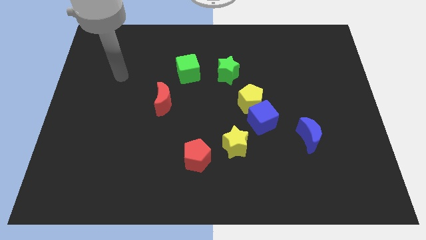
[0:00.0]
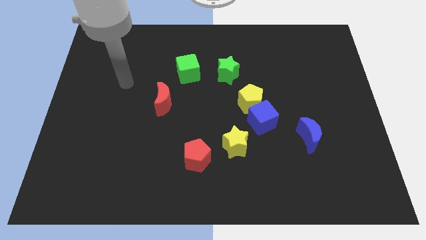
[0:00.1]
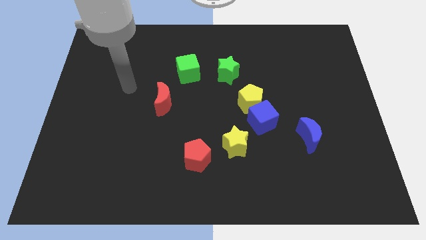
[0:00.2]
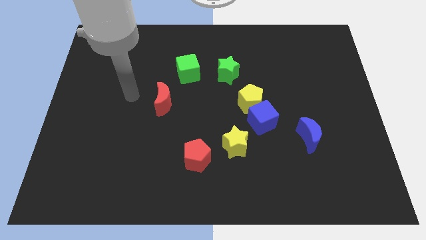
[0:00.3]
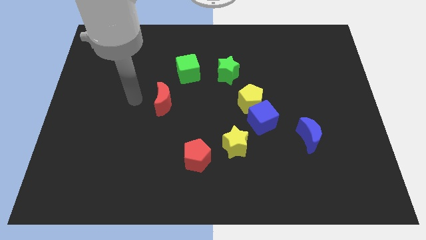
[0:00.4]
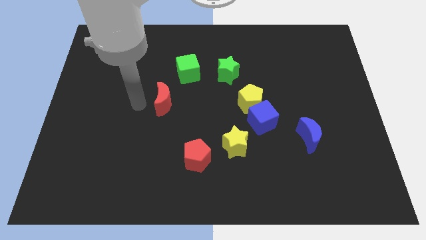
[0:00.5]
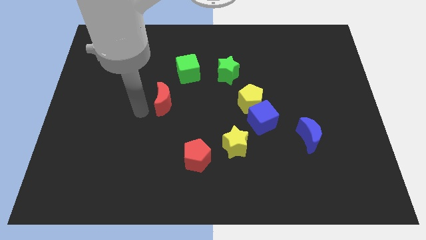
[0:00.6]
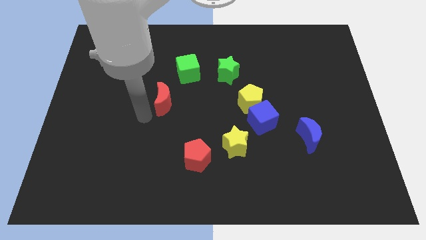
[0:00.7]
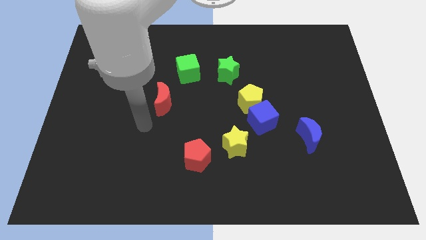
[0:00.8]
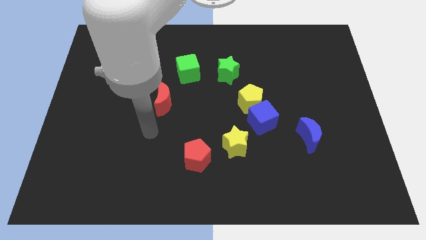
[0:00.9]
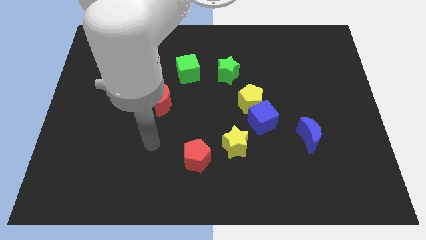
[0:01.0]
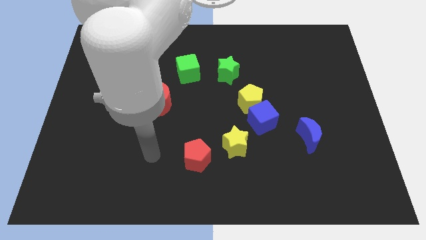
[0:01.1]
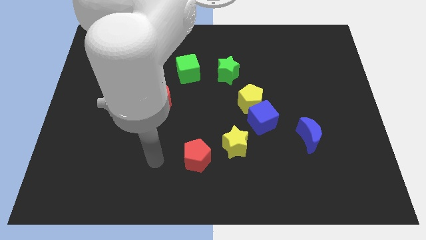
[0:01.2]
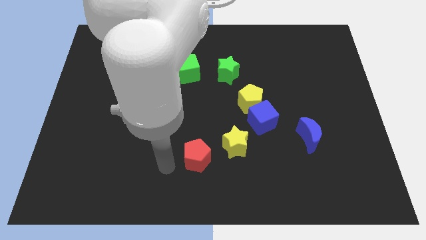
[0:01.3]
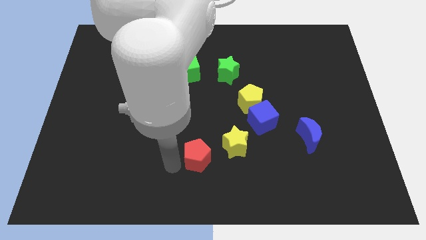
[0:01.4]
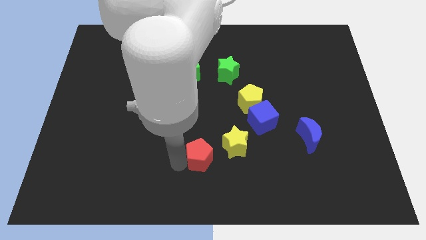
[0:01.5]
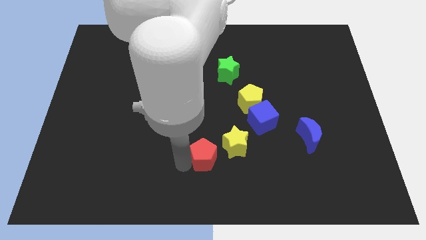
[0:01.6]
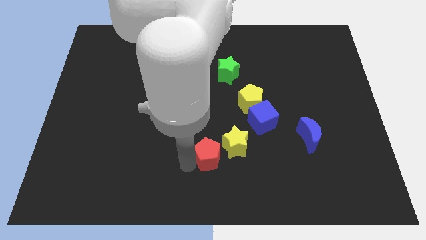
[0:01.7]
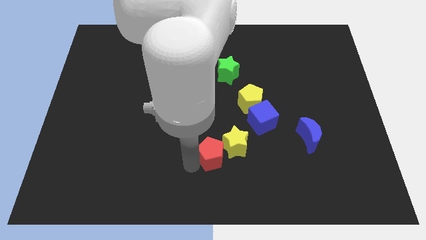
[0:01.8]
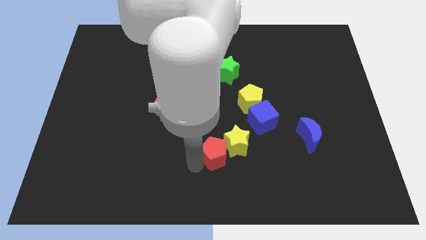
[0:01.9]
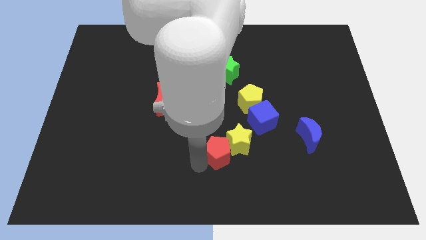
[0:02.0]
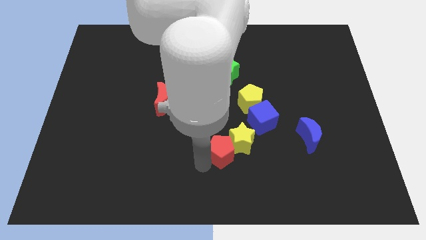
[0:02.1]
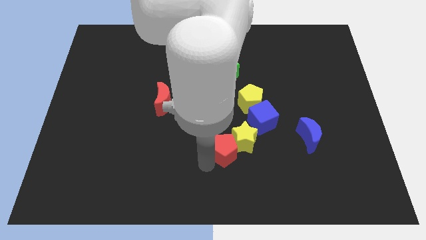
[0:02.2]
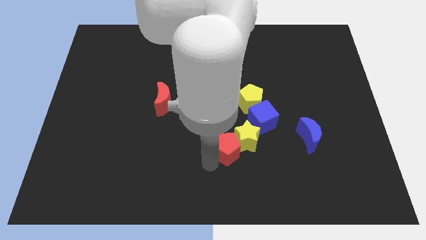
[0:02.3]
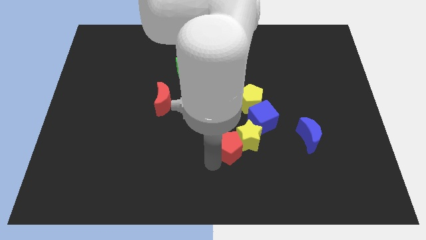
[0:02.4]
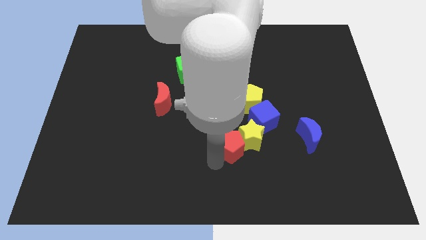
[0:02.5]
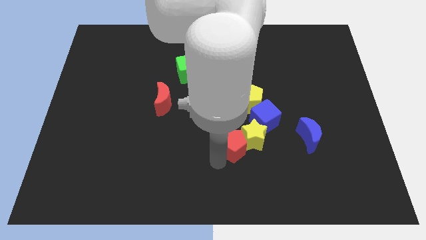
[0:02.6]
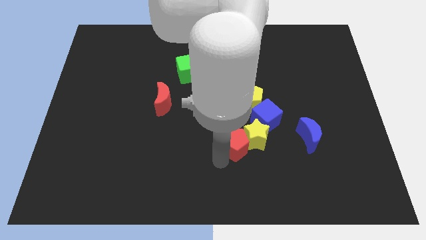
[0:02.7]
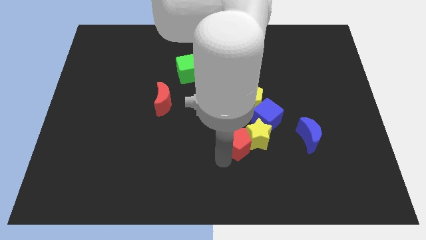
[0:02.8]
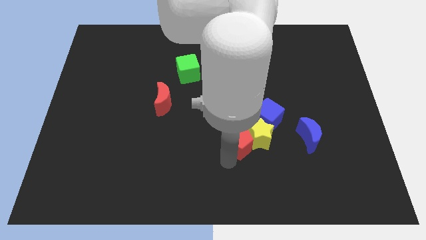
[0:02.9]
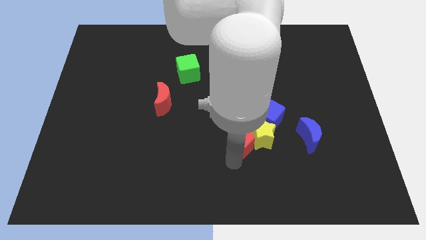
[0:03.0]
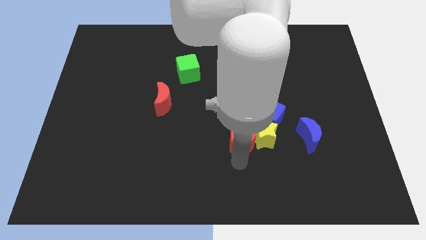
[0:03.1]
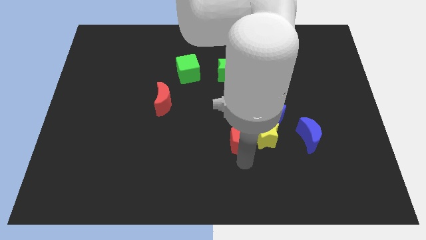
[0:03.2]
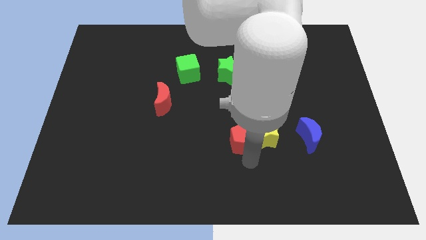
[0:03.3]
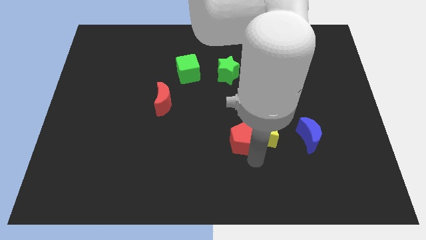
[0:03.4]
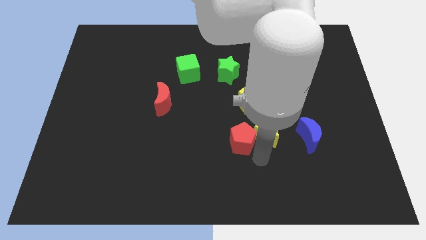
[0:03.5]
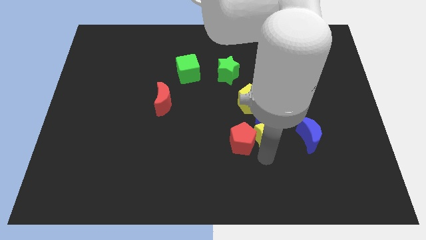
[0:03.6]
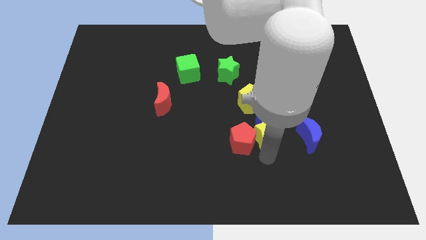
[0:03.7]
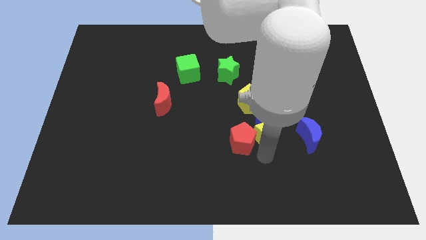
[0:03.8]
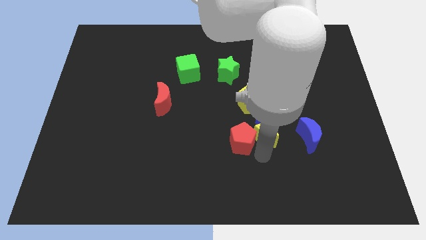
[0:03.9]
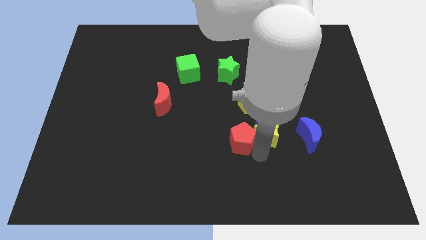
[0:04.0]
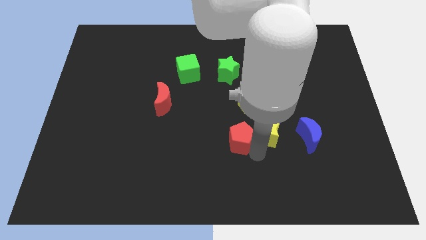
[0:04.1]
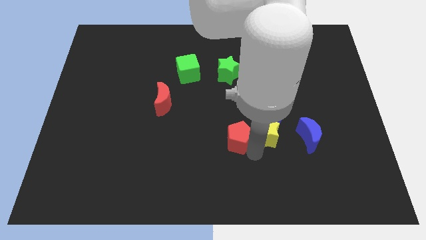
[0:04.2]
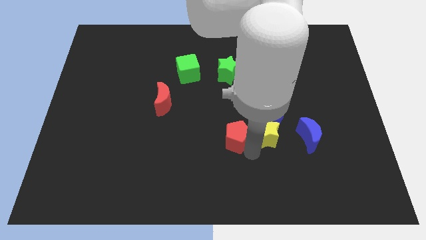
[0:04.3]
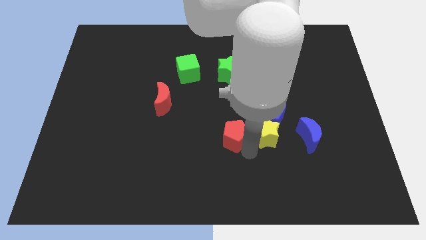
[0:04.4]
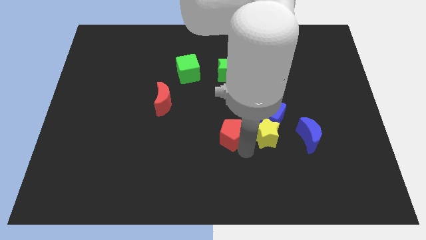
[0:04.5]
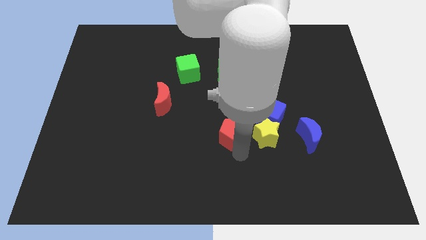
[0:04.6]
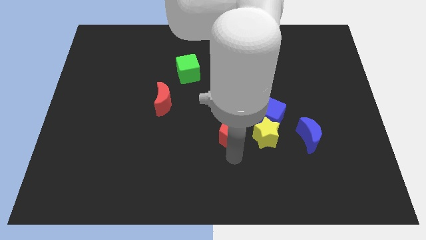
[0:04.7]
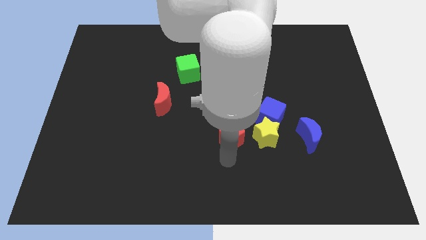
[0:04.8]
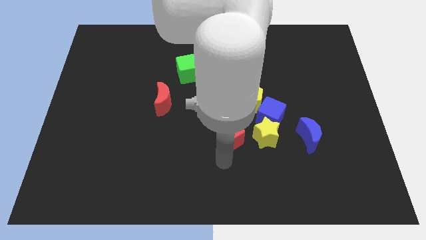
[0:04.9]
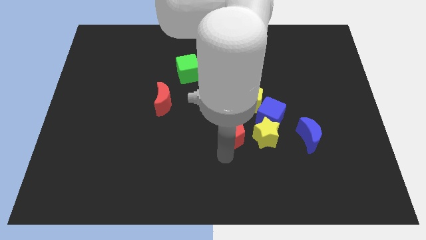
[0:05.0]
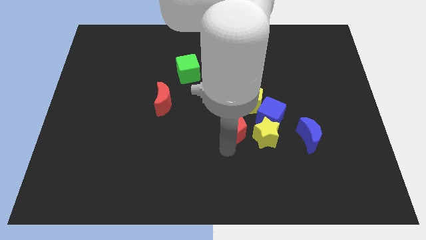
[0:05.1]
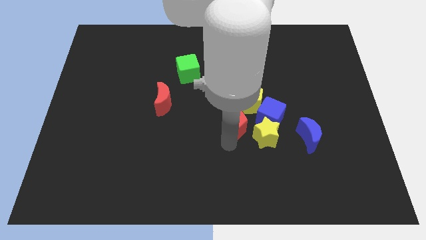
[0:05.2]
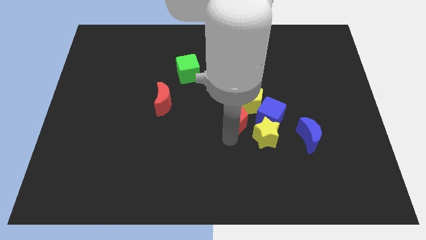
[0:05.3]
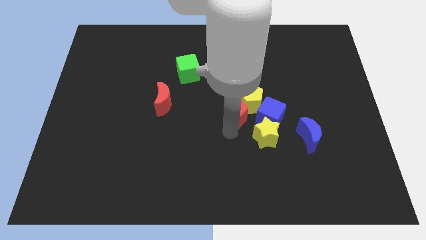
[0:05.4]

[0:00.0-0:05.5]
move the red pentagon towards the yellow pentagon

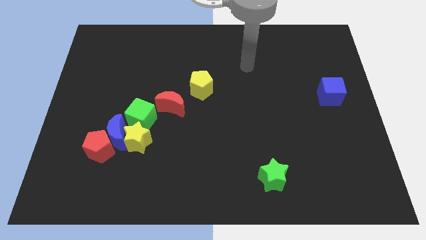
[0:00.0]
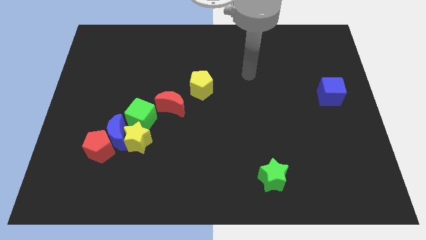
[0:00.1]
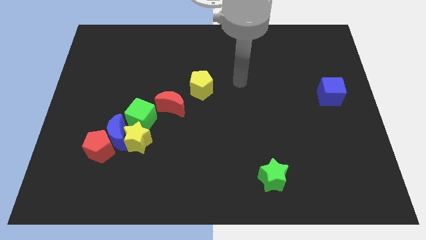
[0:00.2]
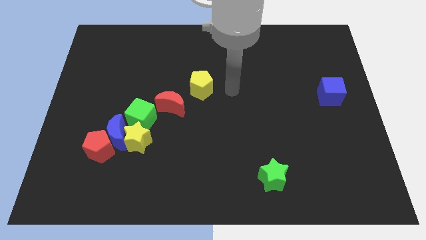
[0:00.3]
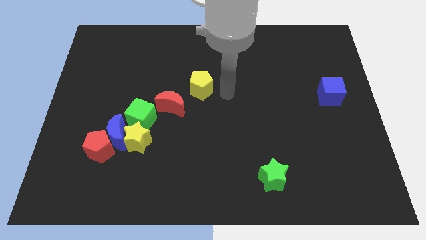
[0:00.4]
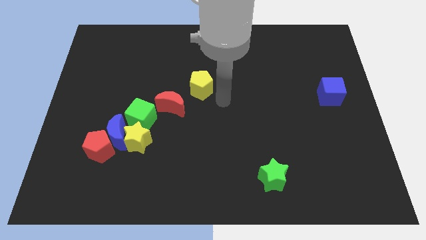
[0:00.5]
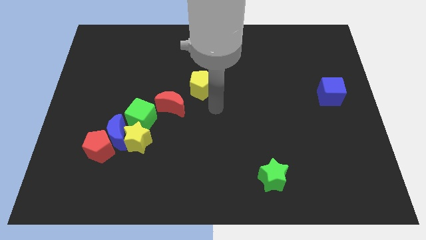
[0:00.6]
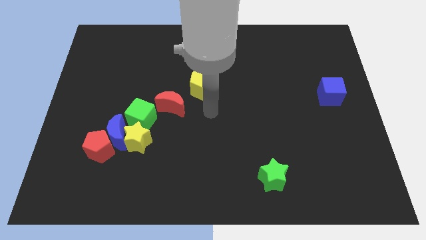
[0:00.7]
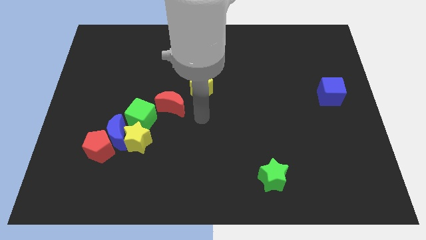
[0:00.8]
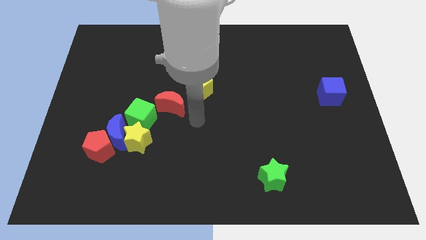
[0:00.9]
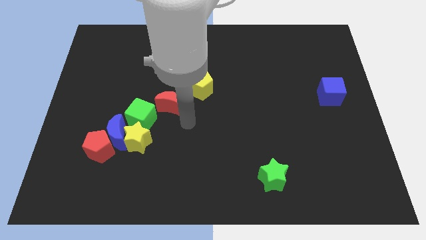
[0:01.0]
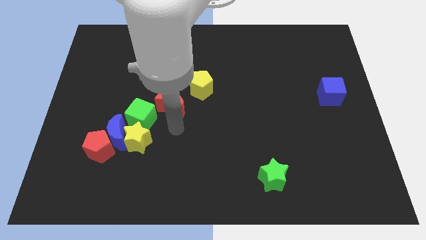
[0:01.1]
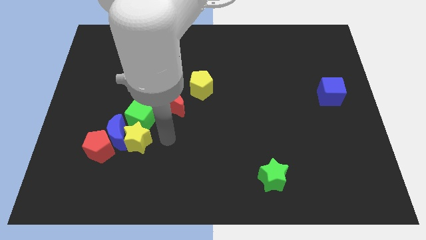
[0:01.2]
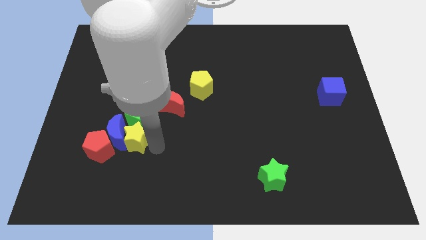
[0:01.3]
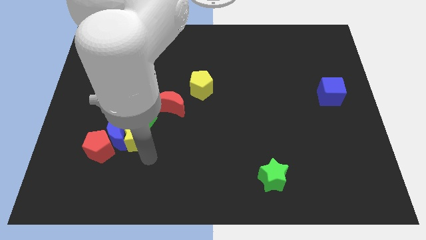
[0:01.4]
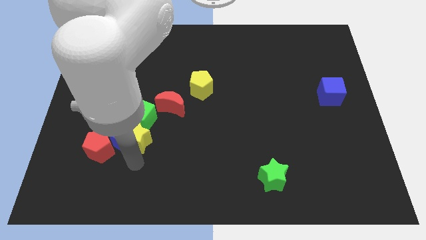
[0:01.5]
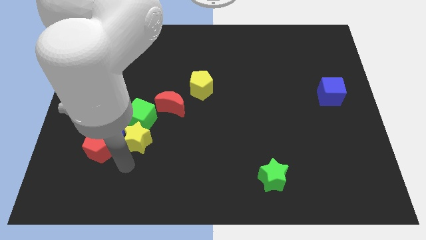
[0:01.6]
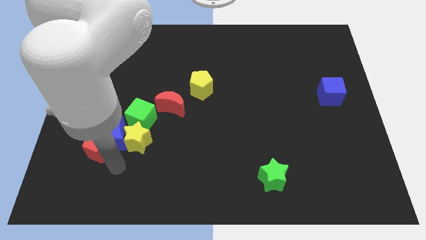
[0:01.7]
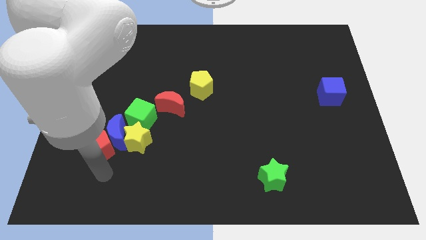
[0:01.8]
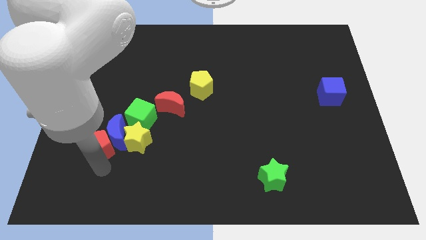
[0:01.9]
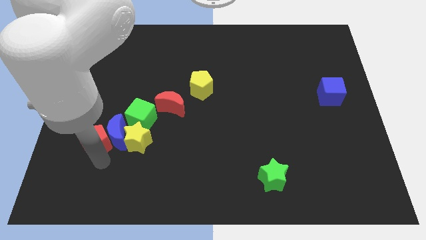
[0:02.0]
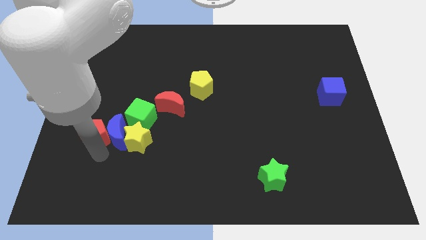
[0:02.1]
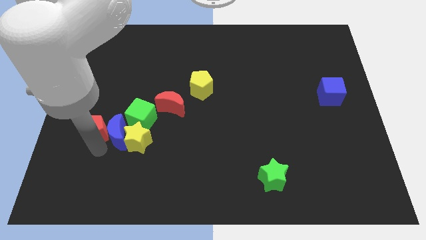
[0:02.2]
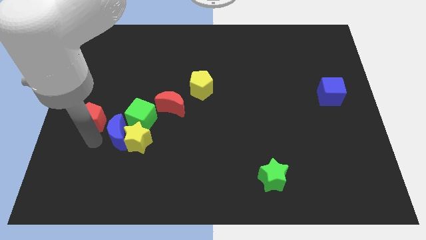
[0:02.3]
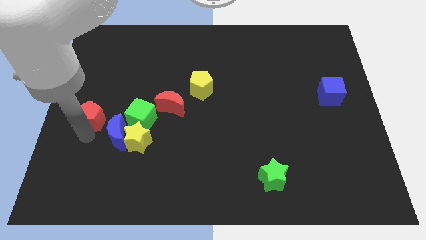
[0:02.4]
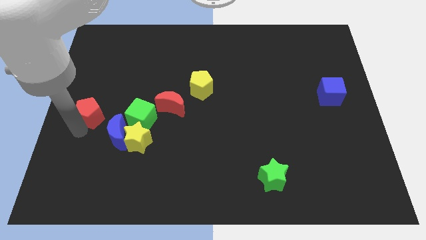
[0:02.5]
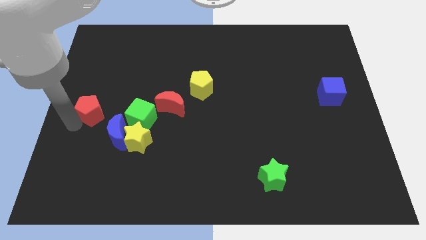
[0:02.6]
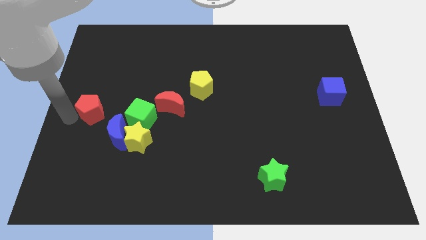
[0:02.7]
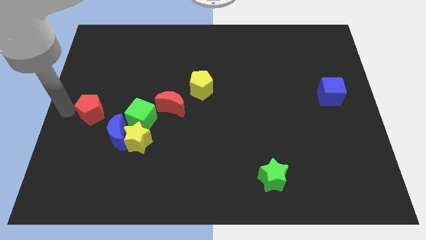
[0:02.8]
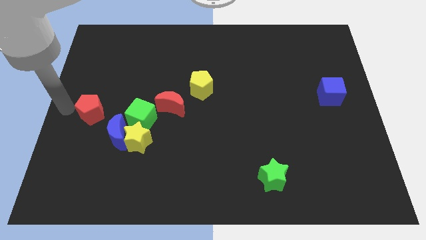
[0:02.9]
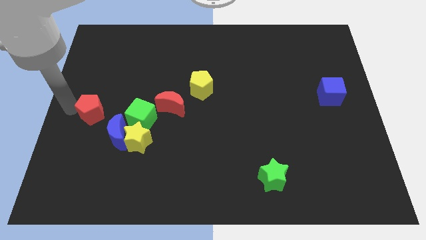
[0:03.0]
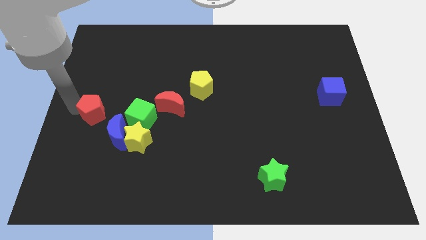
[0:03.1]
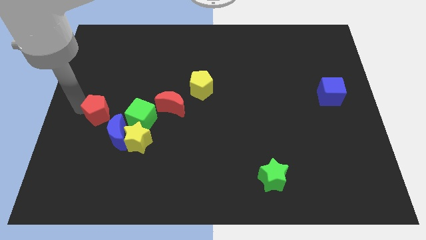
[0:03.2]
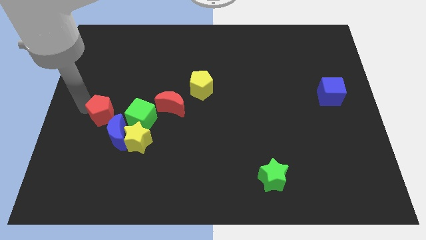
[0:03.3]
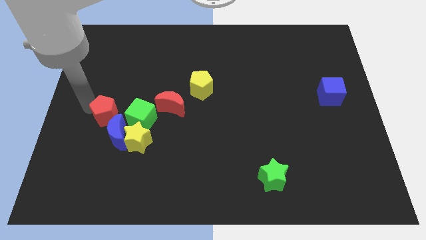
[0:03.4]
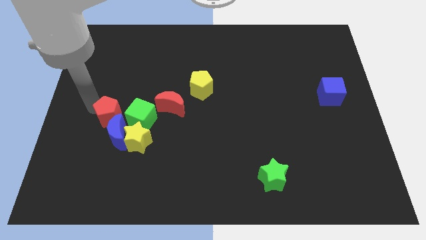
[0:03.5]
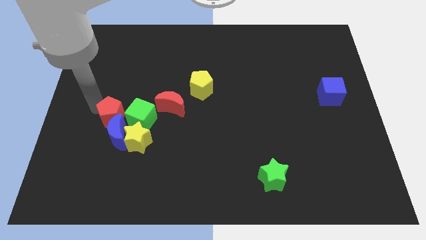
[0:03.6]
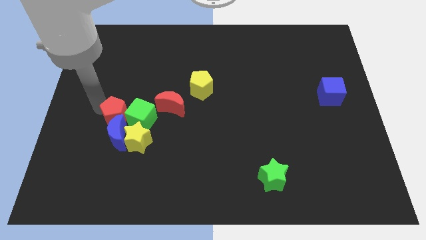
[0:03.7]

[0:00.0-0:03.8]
move the red pentagon towards the green cube
